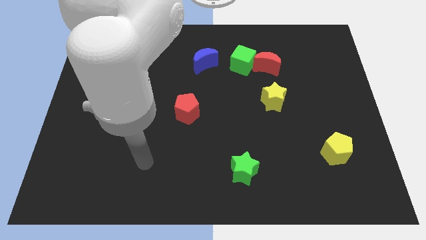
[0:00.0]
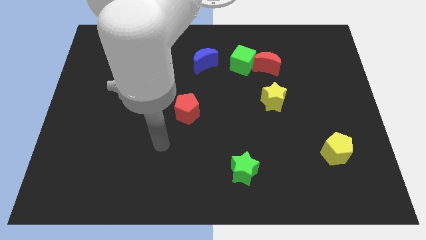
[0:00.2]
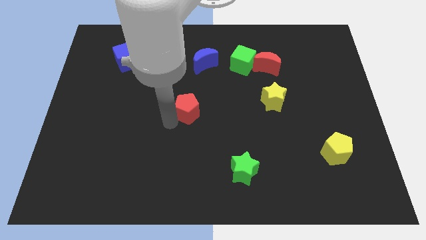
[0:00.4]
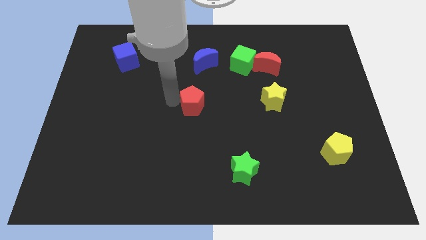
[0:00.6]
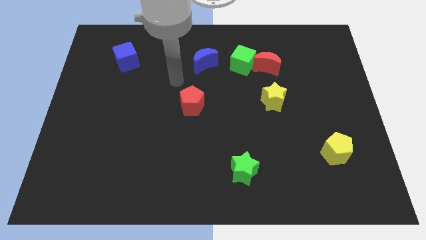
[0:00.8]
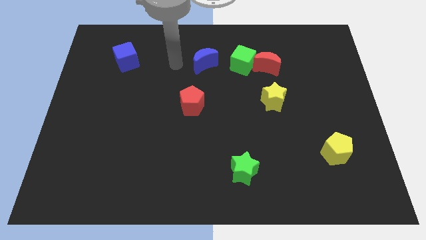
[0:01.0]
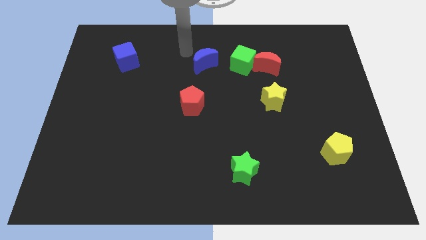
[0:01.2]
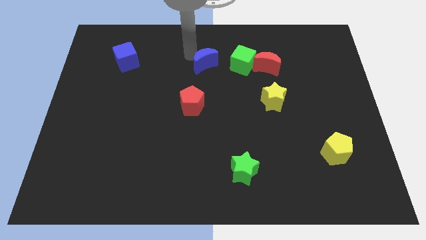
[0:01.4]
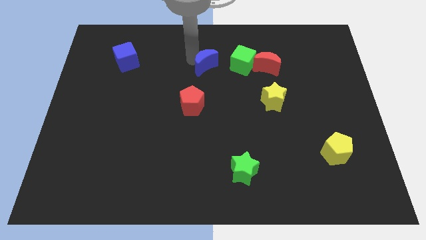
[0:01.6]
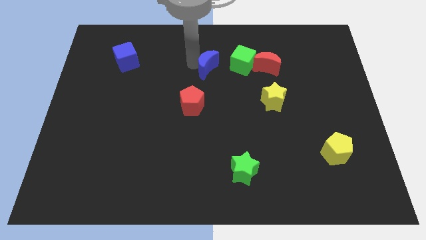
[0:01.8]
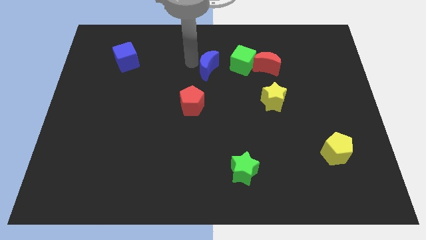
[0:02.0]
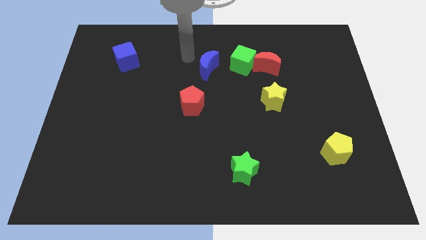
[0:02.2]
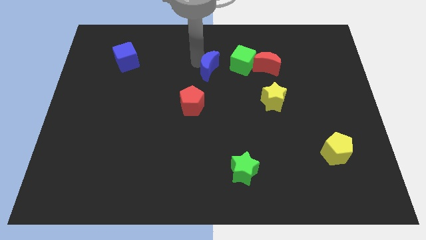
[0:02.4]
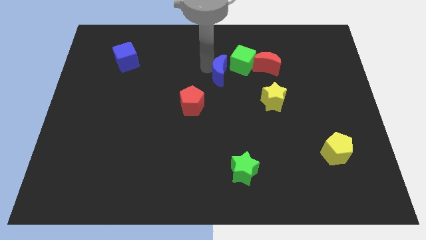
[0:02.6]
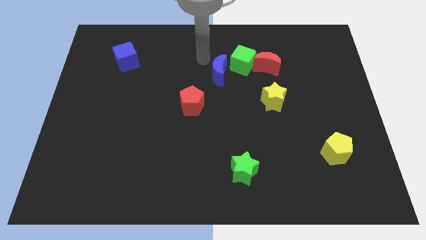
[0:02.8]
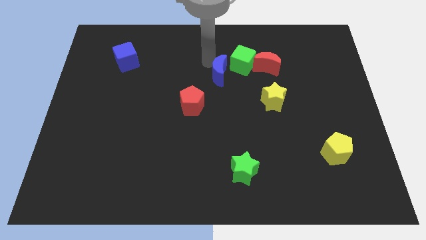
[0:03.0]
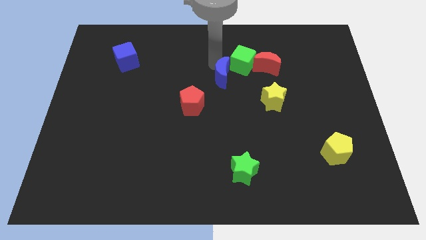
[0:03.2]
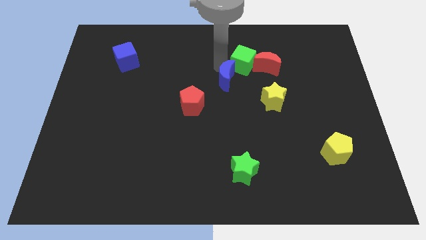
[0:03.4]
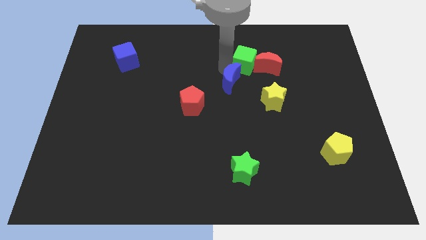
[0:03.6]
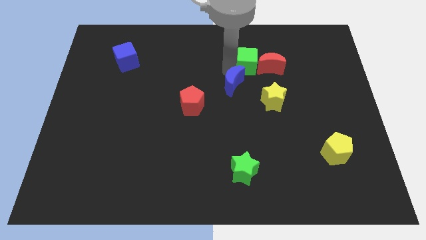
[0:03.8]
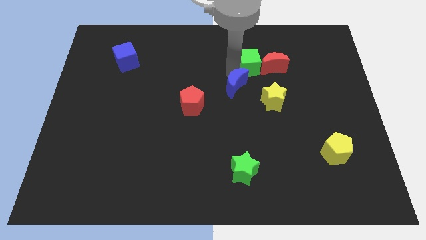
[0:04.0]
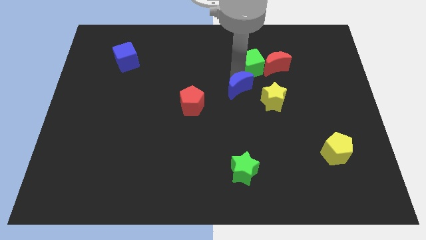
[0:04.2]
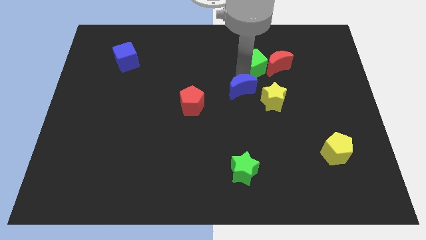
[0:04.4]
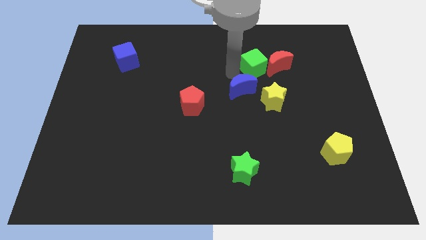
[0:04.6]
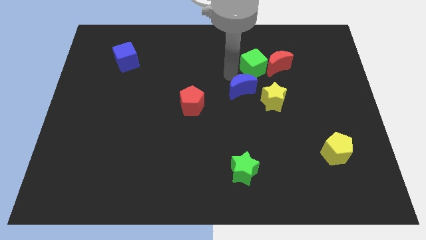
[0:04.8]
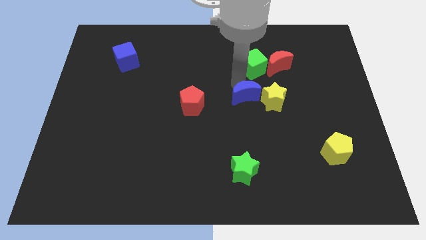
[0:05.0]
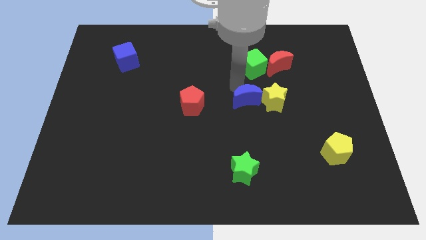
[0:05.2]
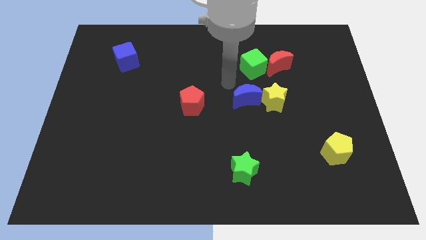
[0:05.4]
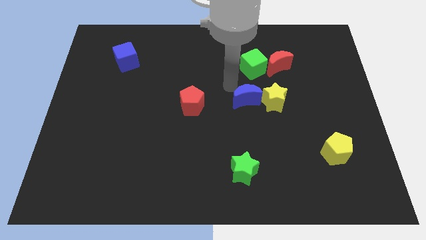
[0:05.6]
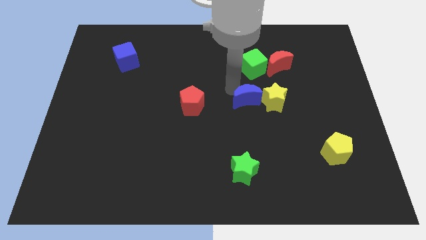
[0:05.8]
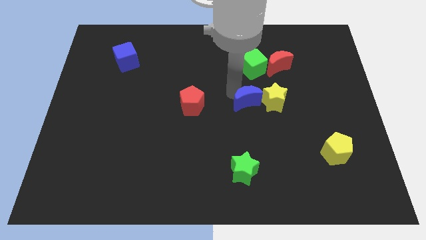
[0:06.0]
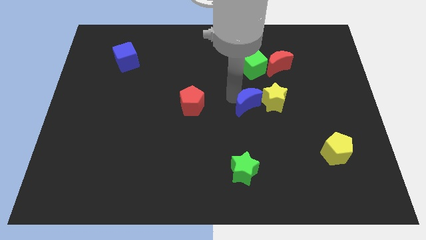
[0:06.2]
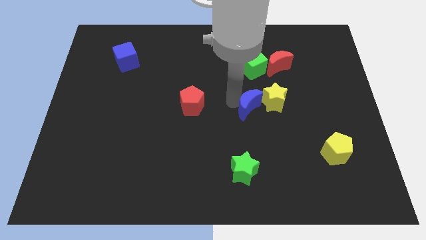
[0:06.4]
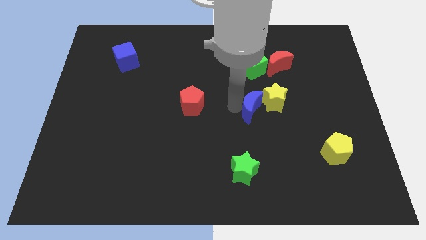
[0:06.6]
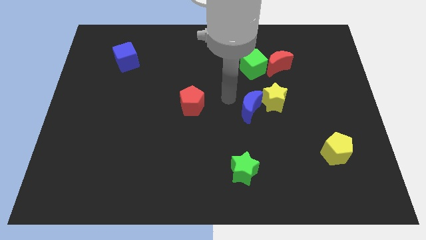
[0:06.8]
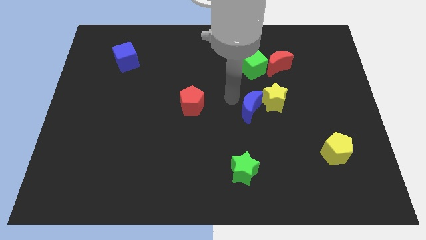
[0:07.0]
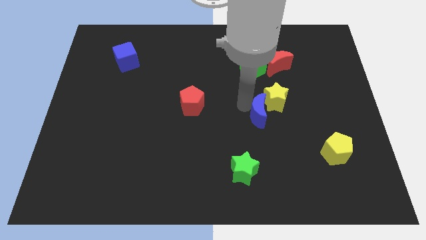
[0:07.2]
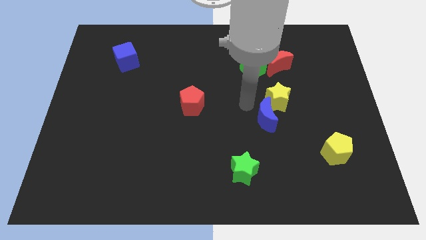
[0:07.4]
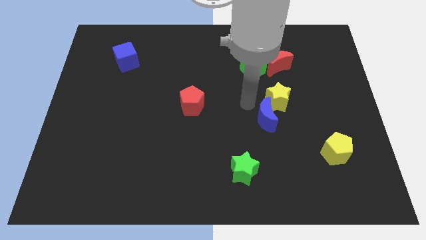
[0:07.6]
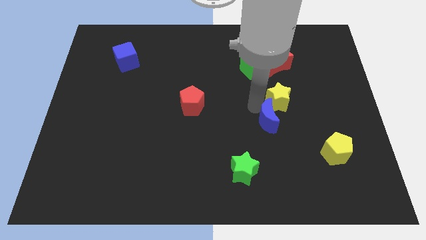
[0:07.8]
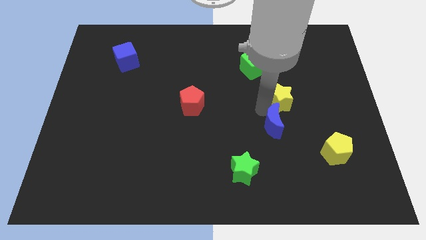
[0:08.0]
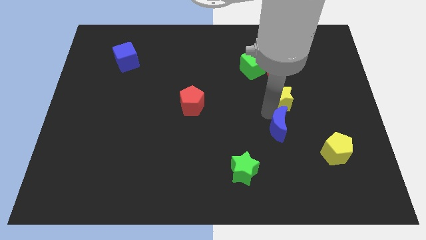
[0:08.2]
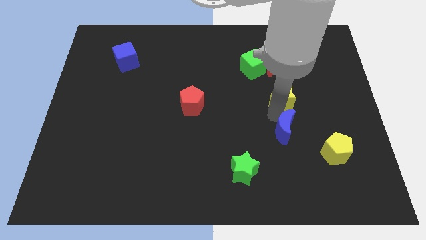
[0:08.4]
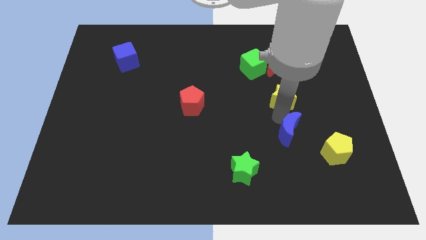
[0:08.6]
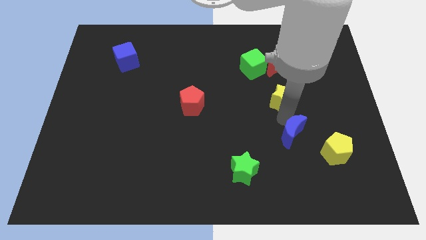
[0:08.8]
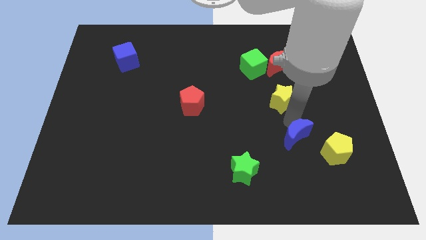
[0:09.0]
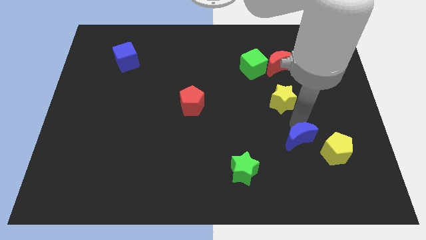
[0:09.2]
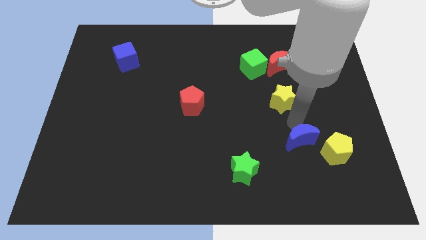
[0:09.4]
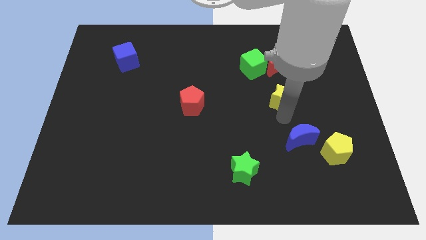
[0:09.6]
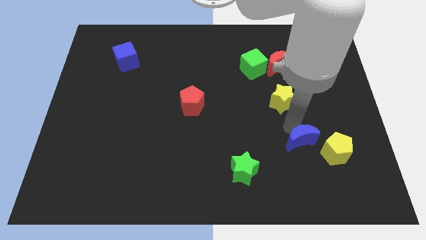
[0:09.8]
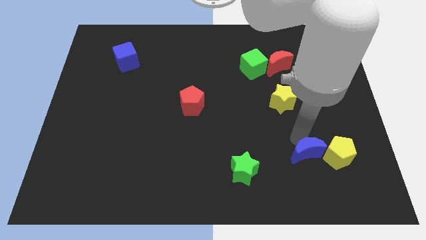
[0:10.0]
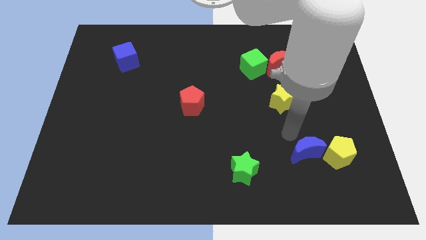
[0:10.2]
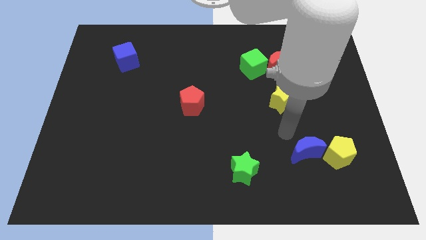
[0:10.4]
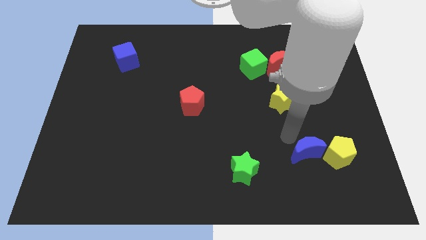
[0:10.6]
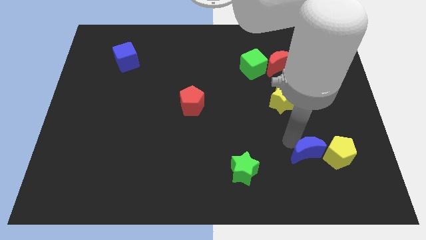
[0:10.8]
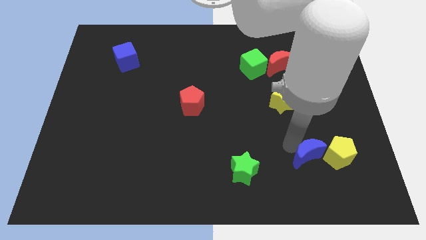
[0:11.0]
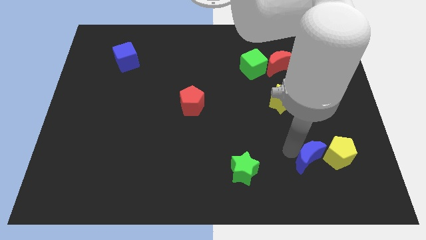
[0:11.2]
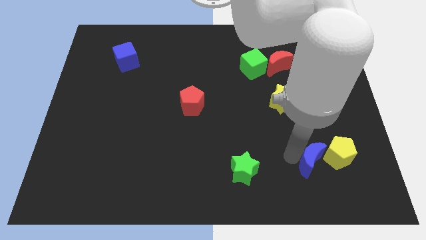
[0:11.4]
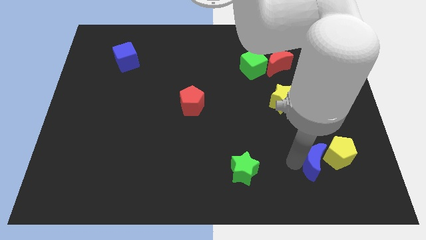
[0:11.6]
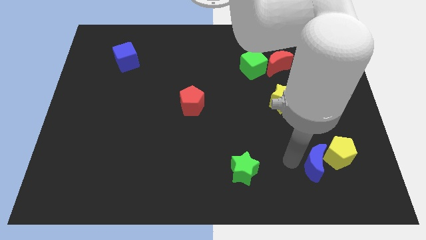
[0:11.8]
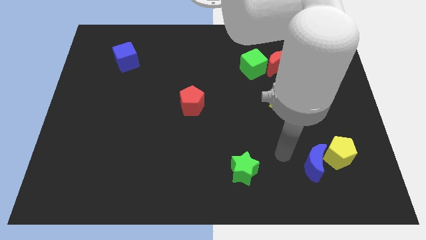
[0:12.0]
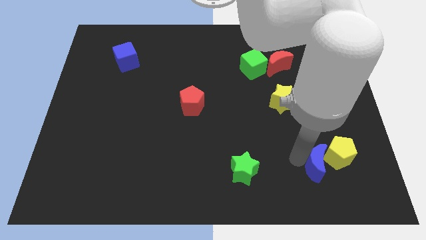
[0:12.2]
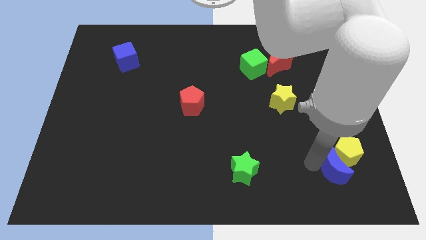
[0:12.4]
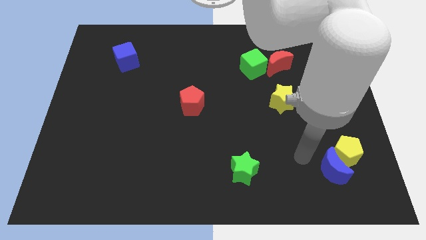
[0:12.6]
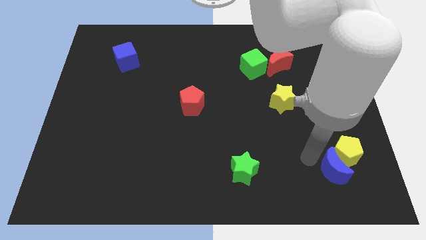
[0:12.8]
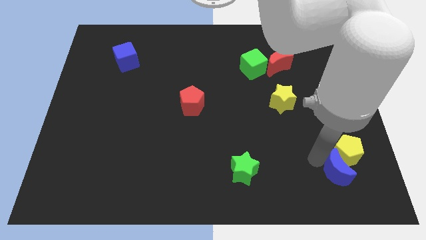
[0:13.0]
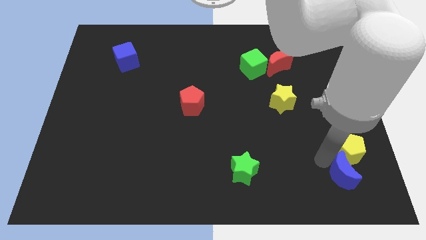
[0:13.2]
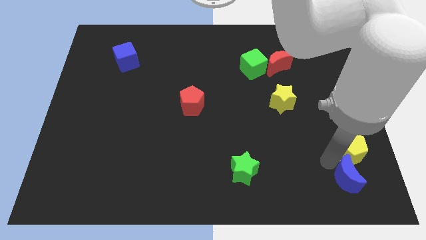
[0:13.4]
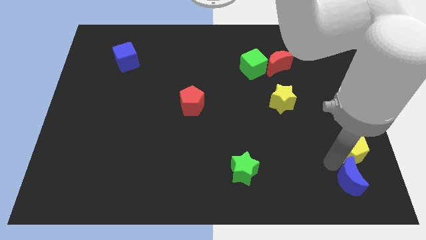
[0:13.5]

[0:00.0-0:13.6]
slide the blue moon to the bottom right

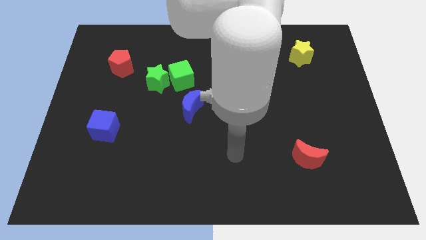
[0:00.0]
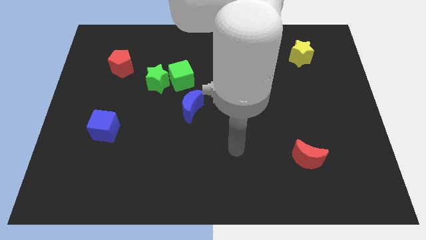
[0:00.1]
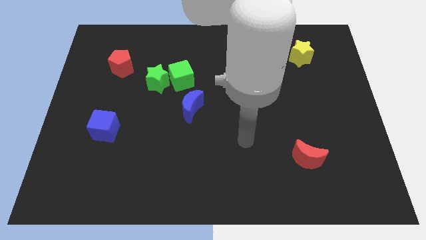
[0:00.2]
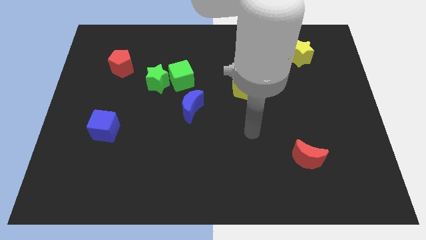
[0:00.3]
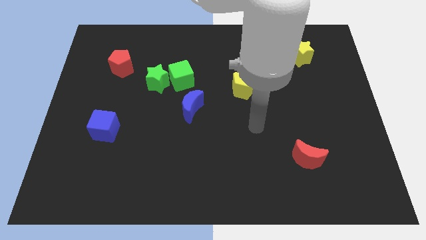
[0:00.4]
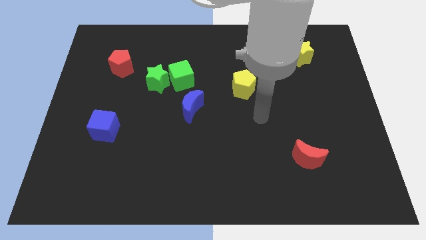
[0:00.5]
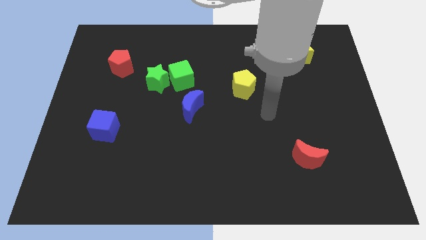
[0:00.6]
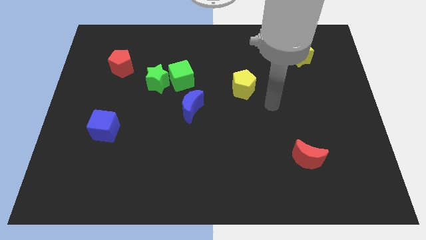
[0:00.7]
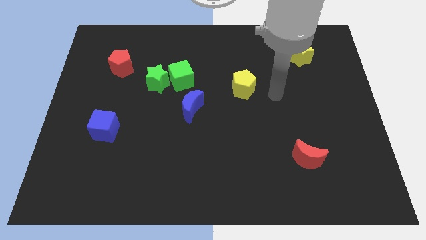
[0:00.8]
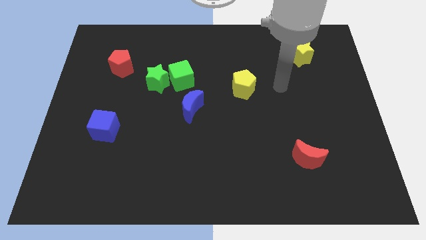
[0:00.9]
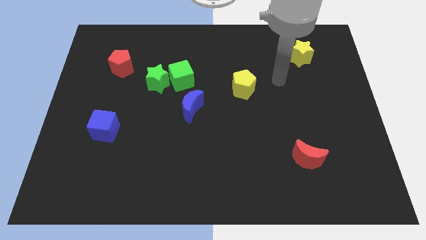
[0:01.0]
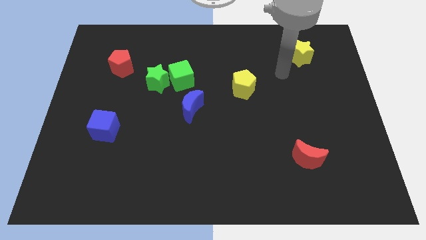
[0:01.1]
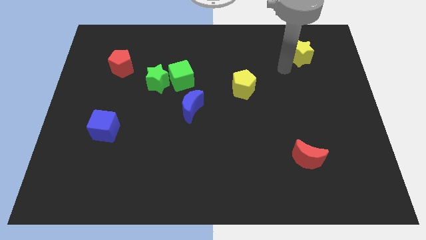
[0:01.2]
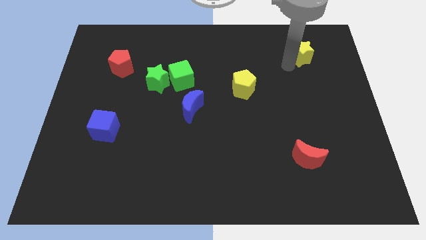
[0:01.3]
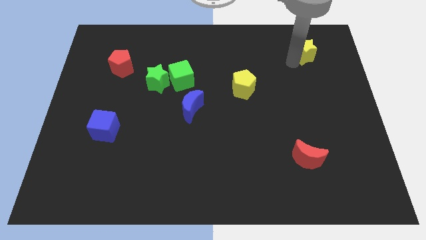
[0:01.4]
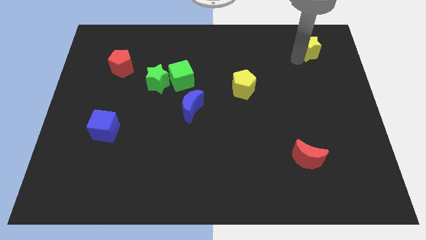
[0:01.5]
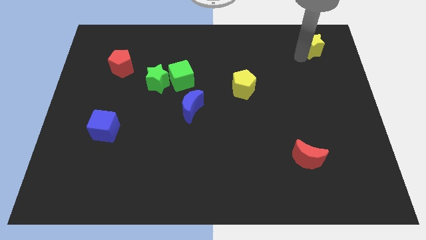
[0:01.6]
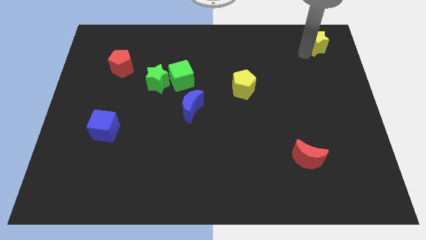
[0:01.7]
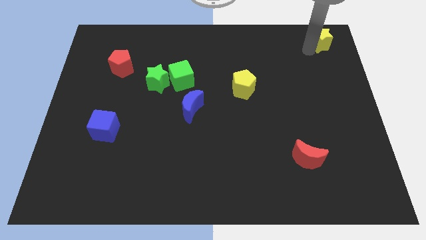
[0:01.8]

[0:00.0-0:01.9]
put the yellow star to the top right corner
